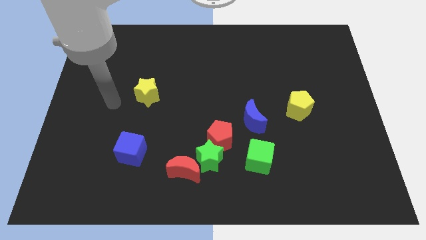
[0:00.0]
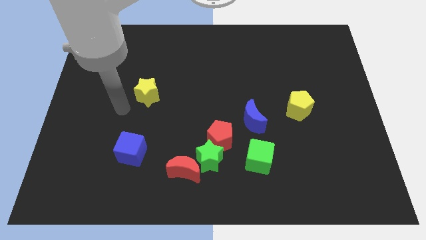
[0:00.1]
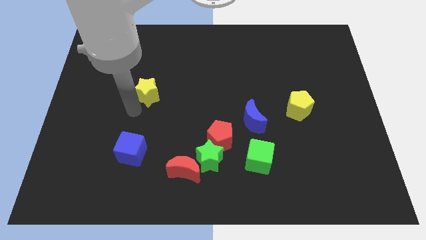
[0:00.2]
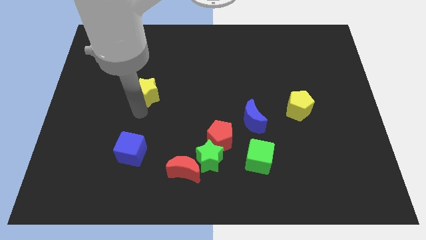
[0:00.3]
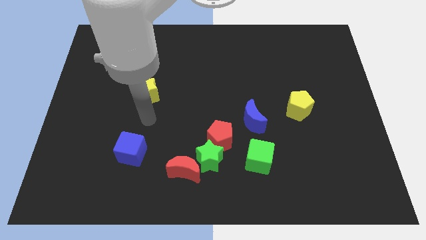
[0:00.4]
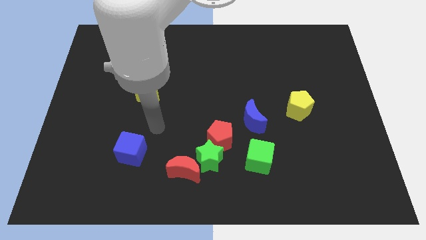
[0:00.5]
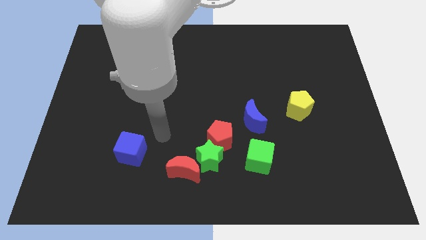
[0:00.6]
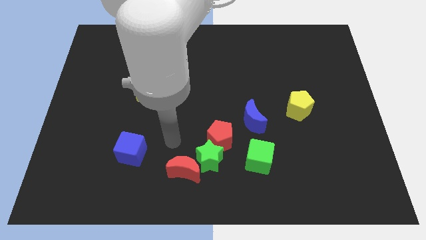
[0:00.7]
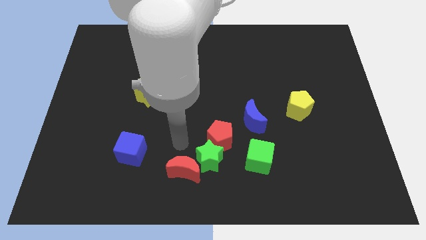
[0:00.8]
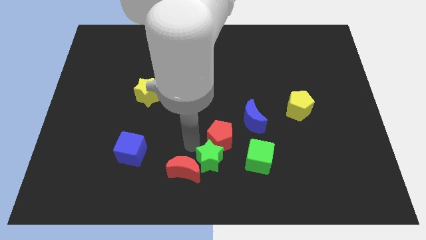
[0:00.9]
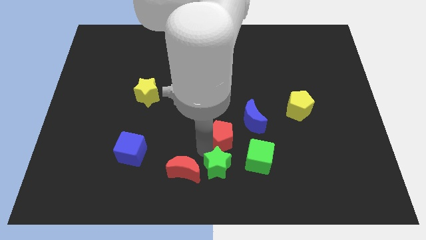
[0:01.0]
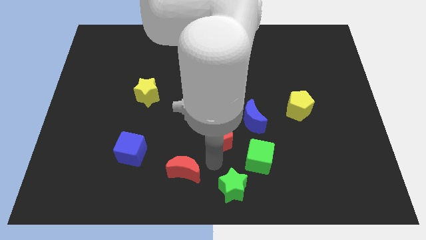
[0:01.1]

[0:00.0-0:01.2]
separate the red moon from the green star

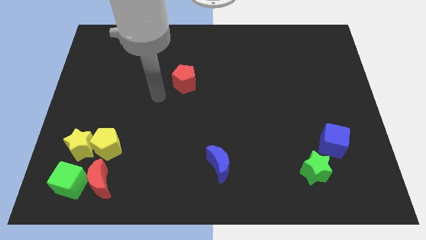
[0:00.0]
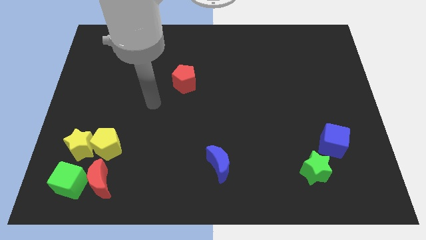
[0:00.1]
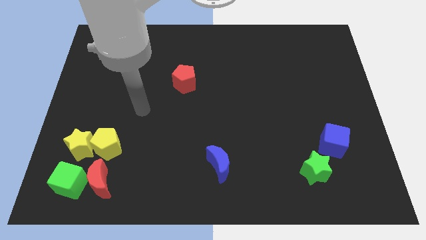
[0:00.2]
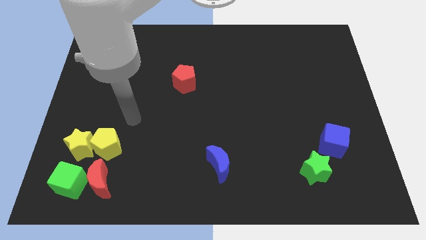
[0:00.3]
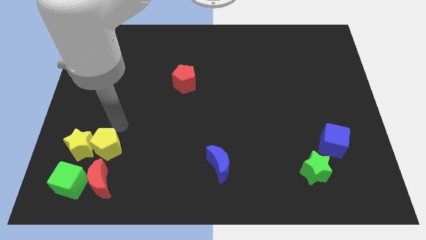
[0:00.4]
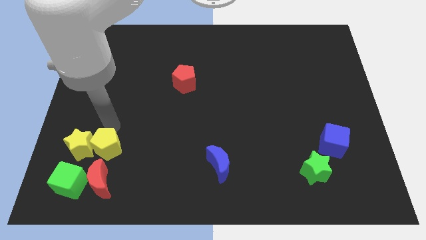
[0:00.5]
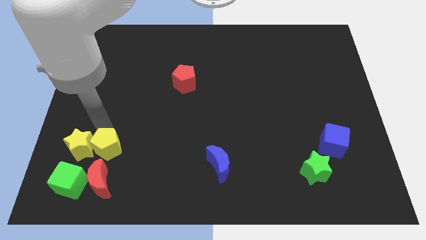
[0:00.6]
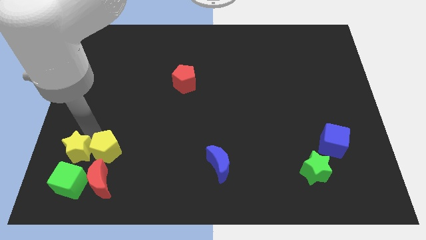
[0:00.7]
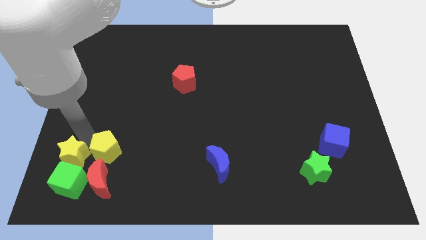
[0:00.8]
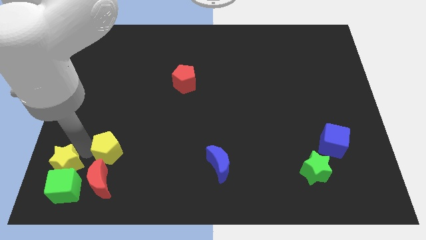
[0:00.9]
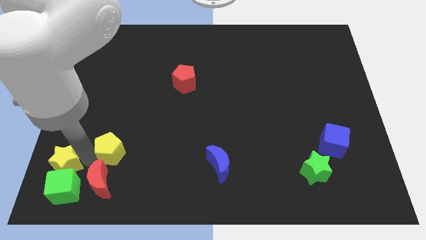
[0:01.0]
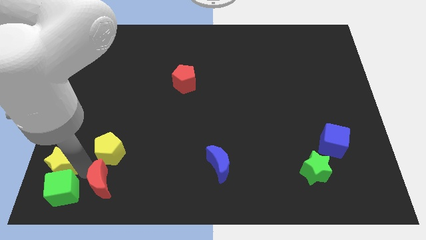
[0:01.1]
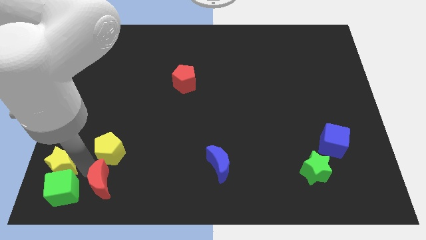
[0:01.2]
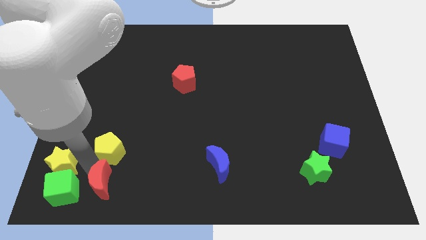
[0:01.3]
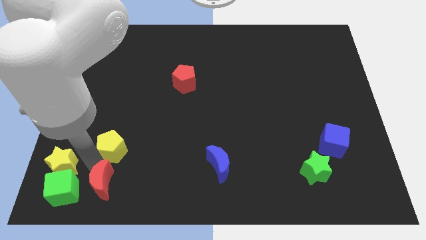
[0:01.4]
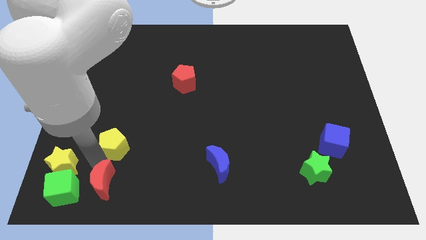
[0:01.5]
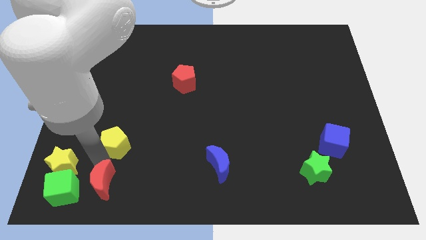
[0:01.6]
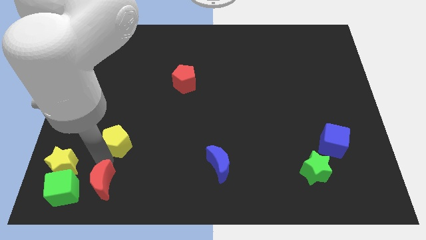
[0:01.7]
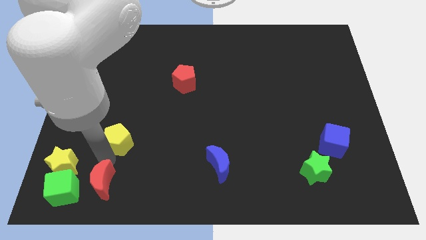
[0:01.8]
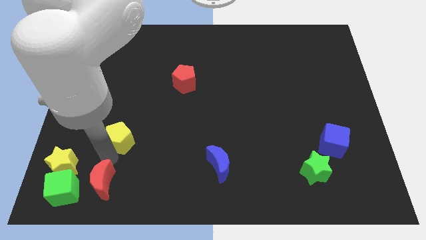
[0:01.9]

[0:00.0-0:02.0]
move the yellow pentagon away from the yellow star and red moon

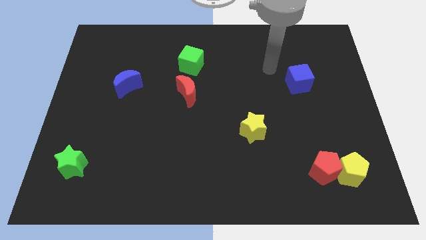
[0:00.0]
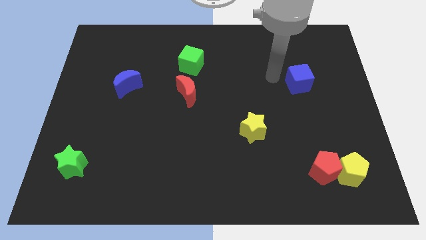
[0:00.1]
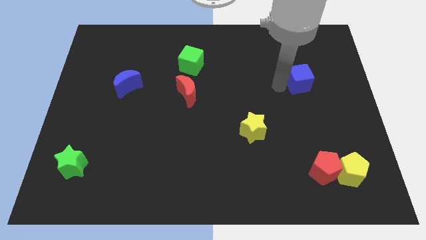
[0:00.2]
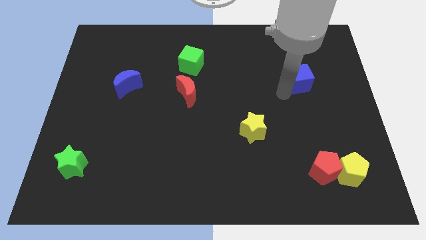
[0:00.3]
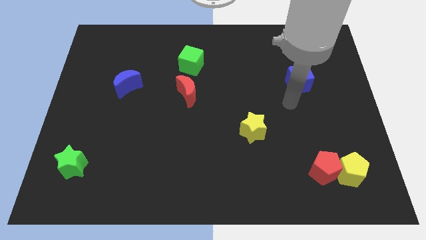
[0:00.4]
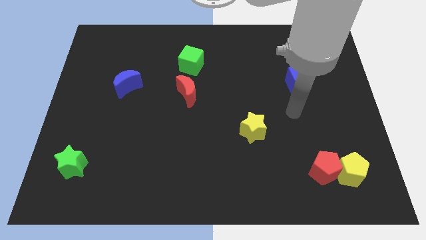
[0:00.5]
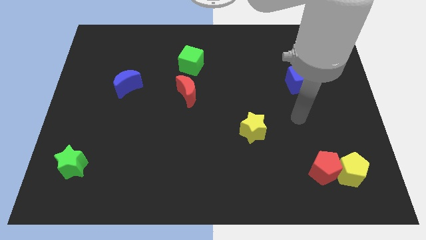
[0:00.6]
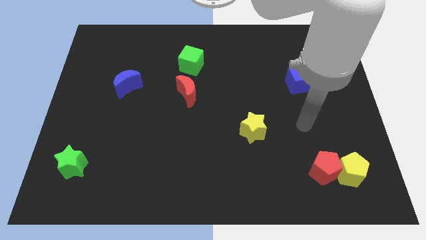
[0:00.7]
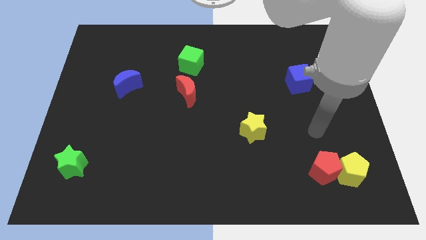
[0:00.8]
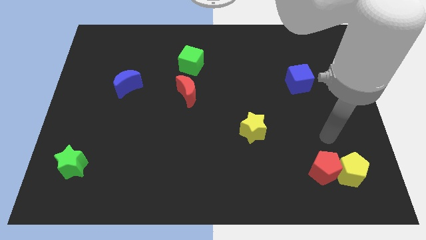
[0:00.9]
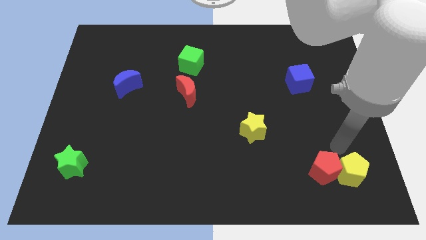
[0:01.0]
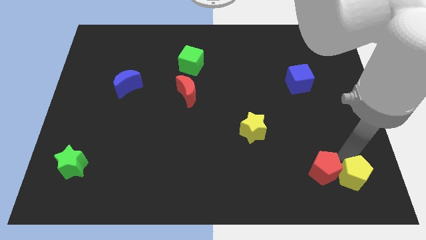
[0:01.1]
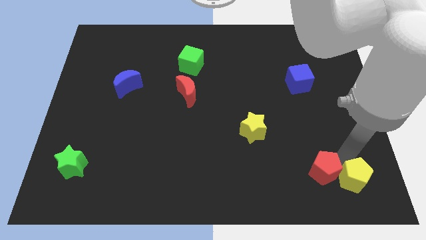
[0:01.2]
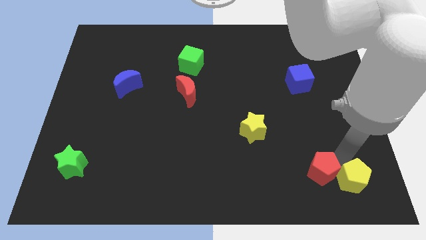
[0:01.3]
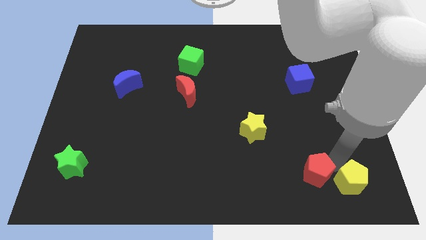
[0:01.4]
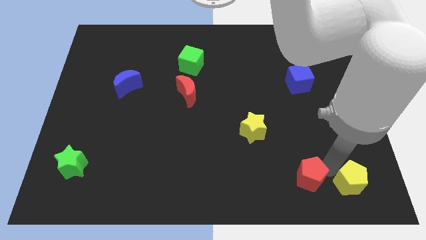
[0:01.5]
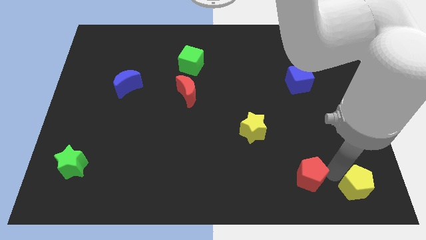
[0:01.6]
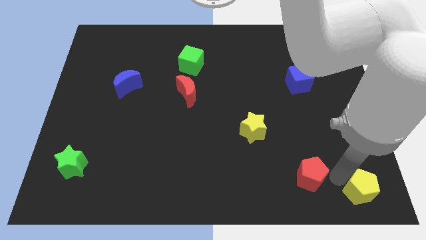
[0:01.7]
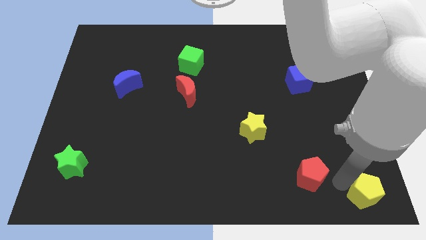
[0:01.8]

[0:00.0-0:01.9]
pull the red pentagon apart from the yellow pentagon

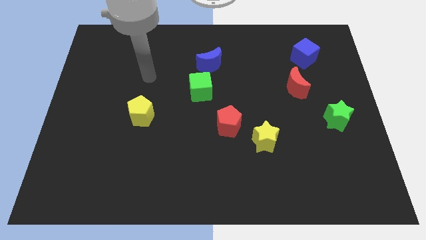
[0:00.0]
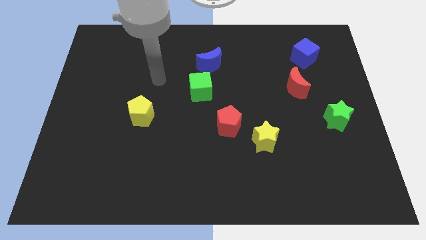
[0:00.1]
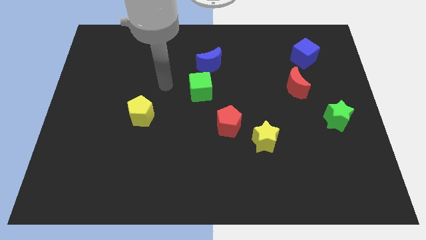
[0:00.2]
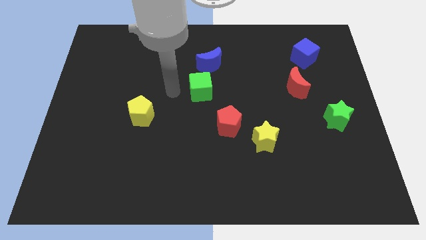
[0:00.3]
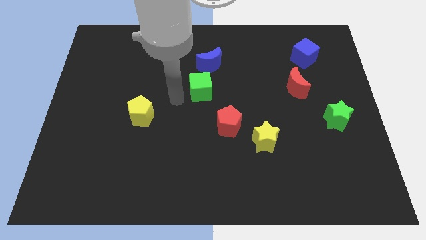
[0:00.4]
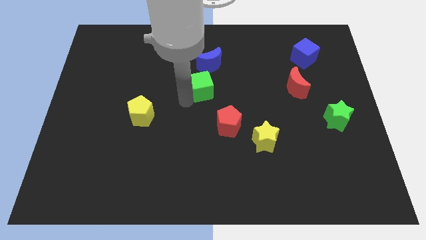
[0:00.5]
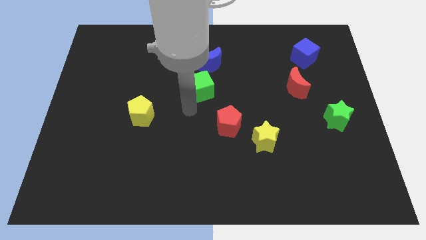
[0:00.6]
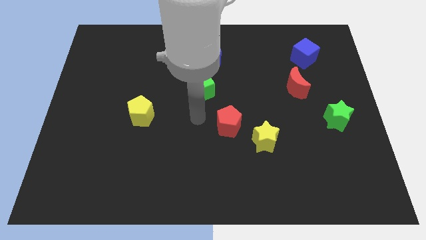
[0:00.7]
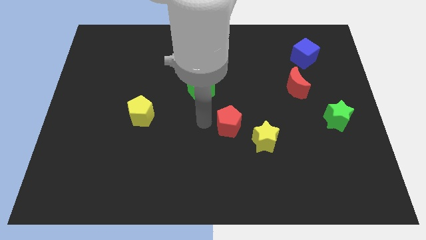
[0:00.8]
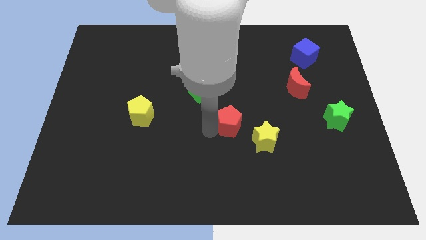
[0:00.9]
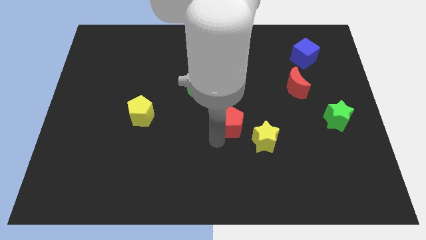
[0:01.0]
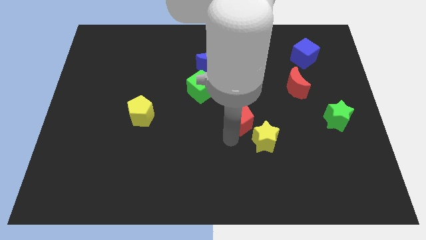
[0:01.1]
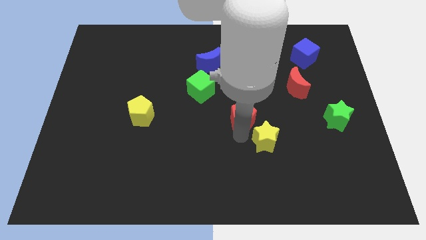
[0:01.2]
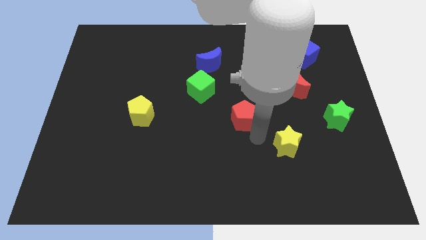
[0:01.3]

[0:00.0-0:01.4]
move the red pentagon away from the yellow star

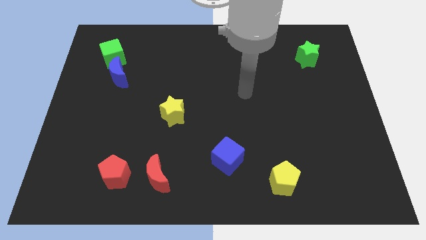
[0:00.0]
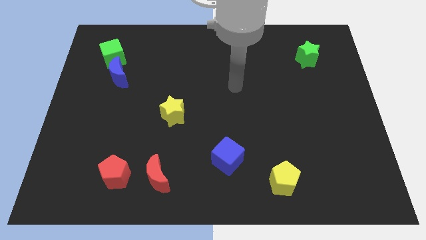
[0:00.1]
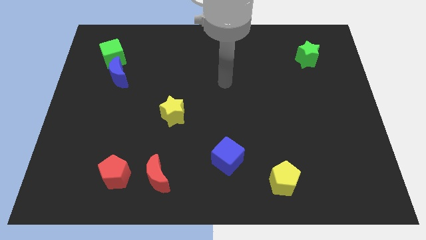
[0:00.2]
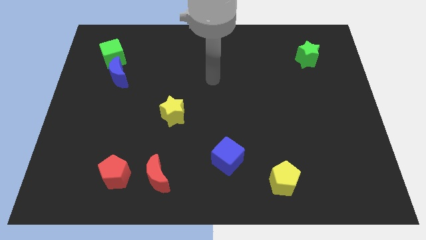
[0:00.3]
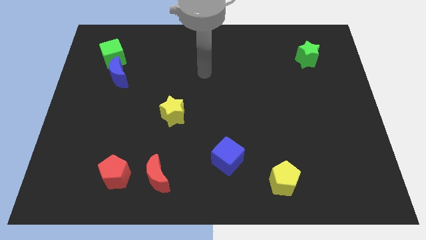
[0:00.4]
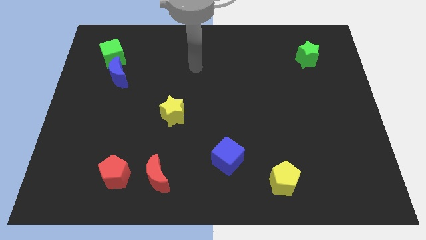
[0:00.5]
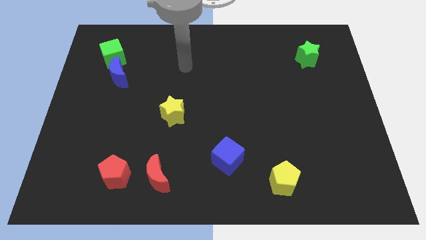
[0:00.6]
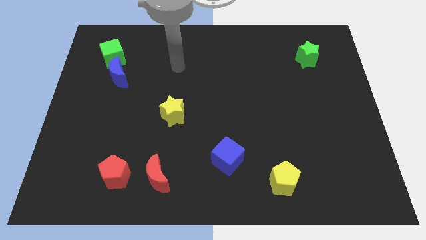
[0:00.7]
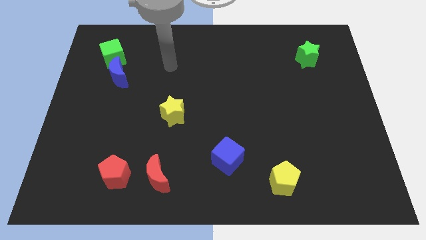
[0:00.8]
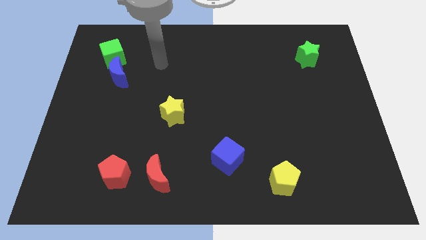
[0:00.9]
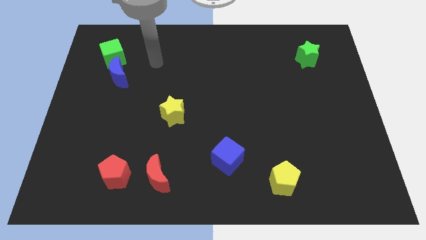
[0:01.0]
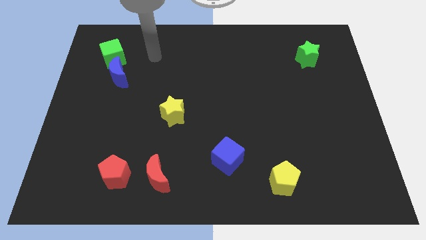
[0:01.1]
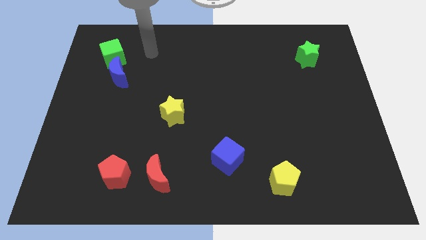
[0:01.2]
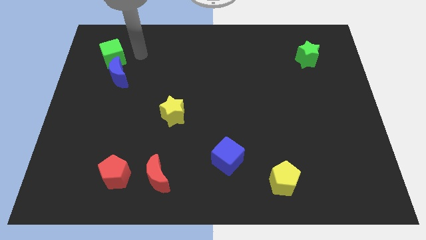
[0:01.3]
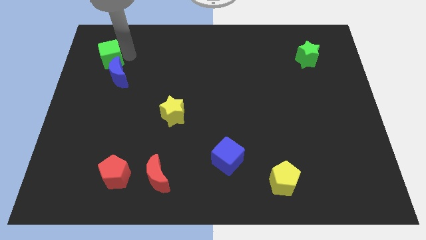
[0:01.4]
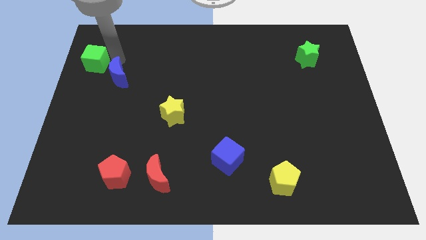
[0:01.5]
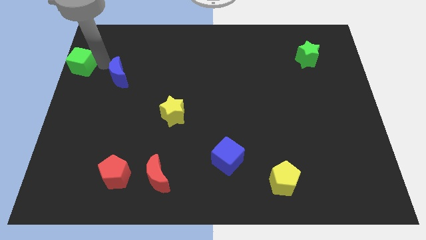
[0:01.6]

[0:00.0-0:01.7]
separate the blue moon from the green cube

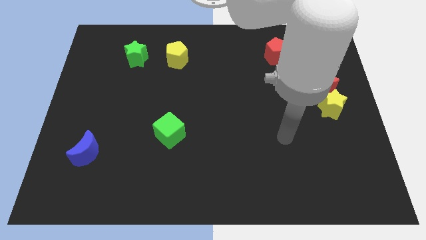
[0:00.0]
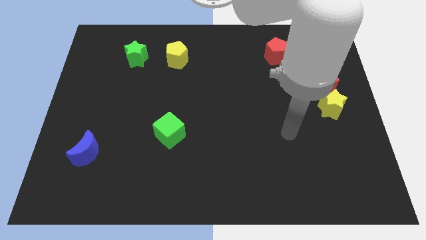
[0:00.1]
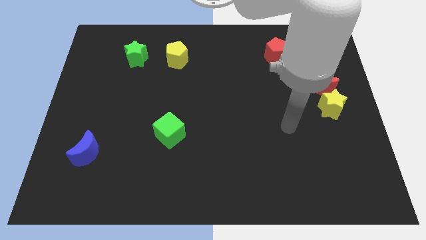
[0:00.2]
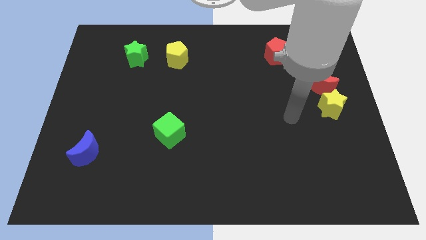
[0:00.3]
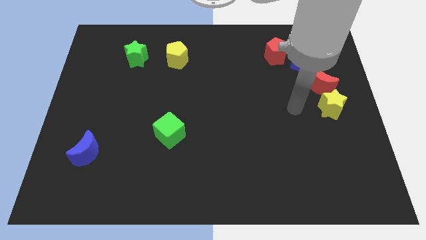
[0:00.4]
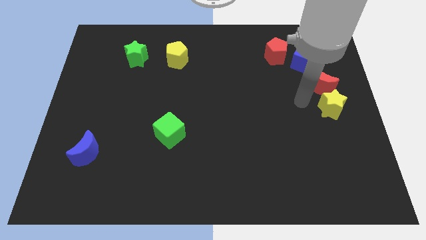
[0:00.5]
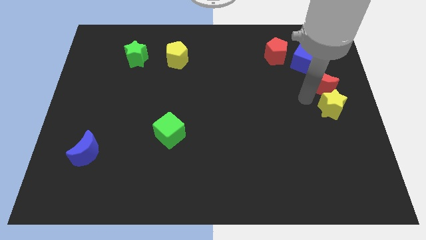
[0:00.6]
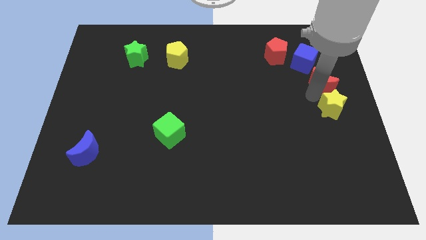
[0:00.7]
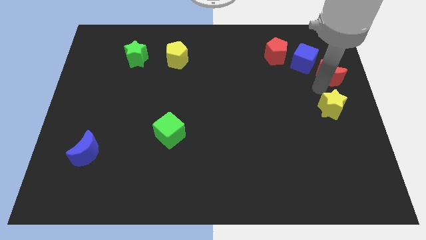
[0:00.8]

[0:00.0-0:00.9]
pull the yellow star apart from the red moon

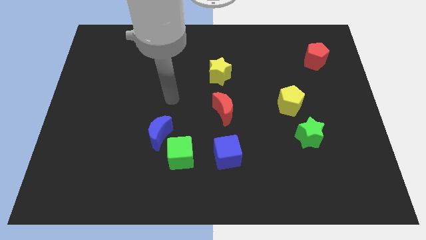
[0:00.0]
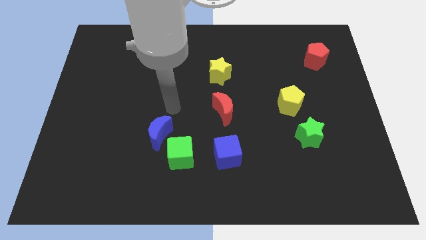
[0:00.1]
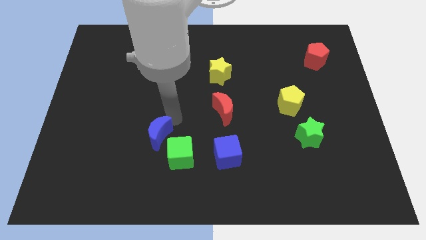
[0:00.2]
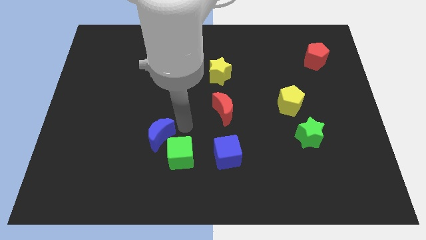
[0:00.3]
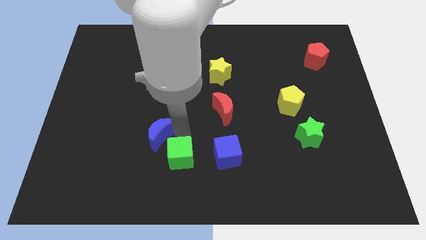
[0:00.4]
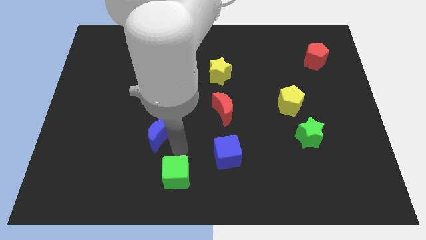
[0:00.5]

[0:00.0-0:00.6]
pull the blue moon apart from the green cube
